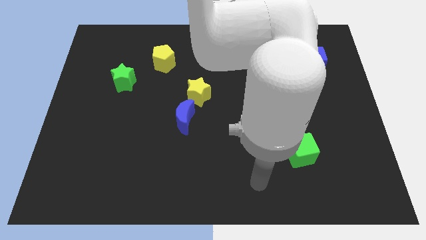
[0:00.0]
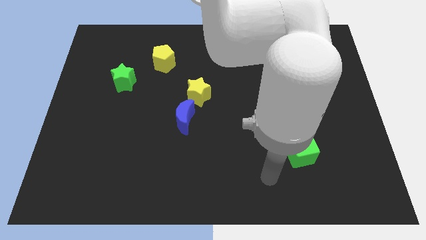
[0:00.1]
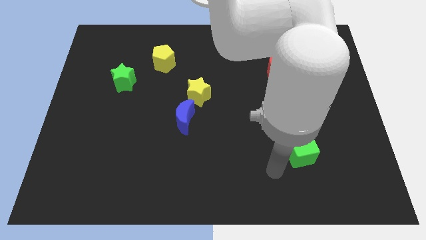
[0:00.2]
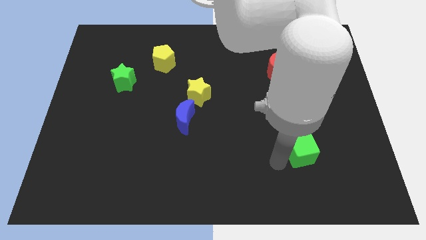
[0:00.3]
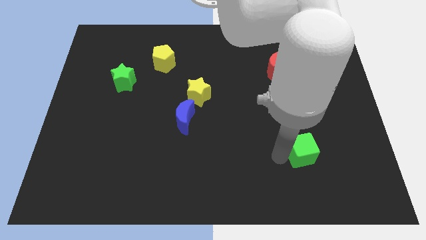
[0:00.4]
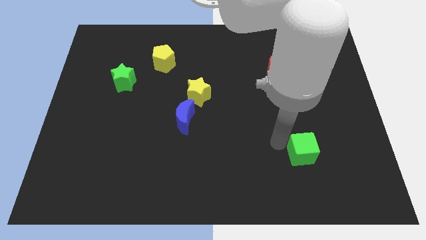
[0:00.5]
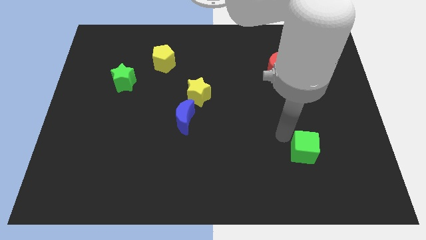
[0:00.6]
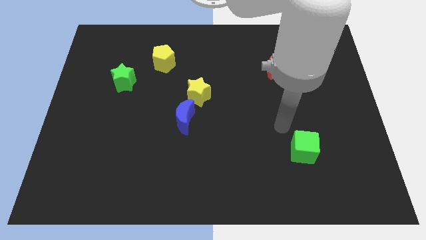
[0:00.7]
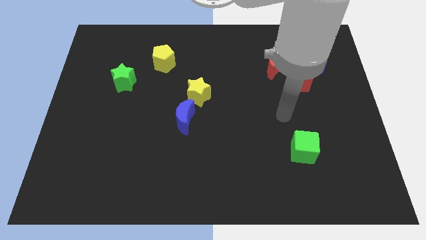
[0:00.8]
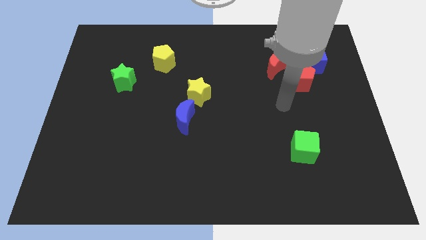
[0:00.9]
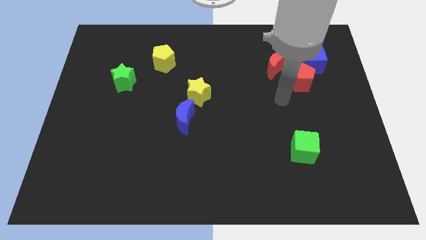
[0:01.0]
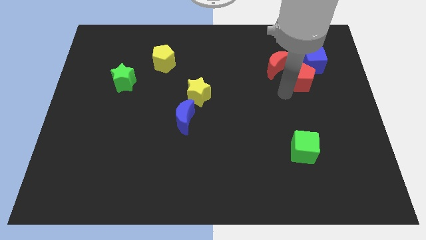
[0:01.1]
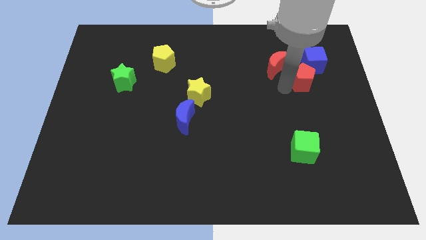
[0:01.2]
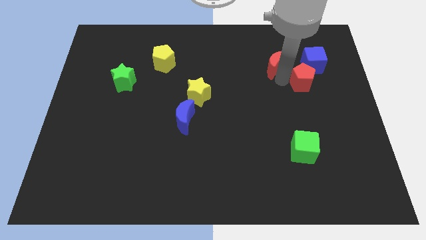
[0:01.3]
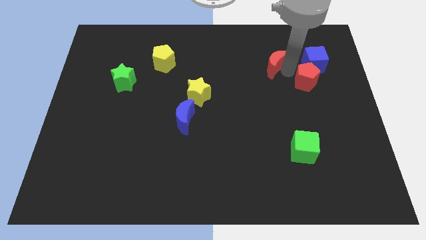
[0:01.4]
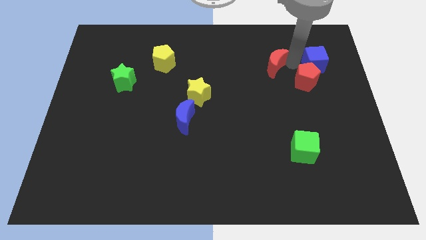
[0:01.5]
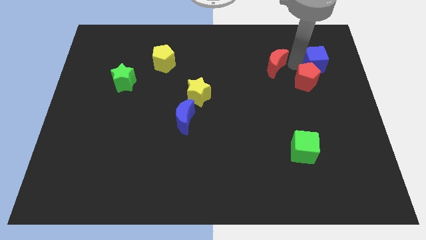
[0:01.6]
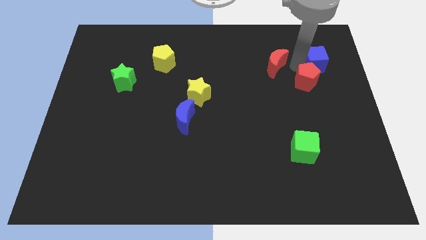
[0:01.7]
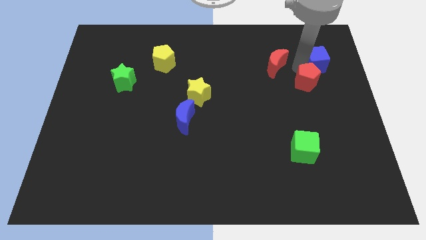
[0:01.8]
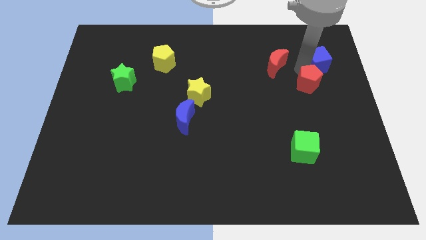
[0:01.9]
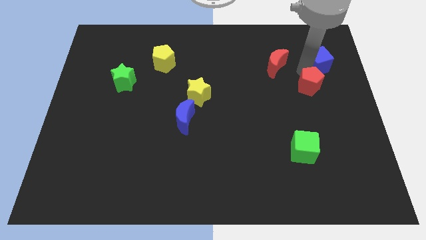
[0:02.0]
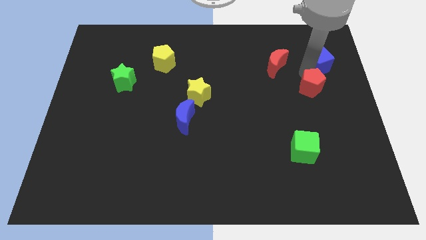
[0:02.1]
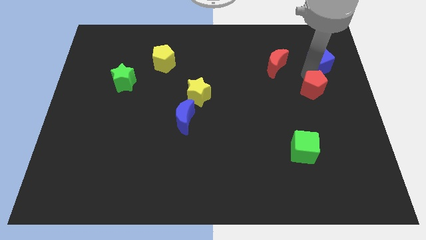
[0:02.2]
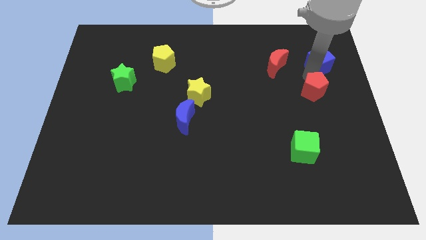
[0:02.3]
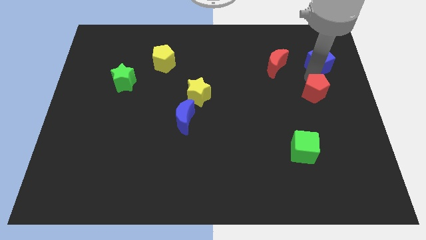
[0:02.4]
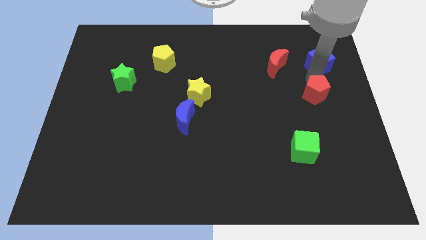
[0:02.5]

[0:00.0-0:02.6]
pull the red pentagon apart from the blue cube and red moon

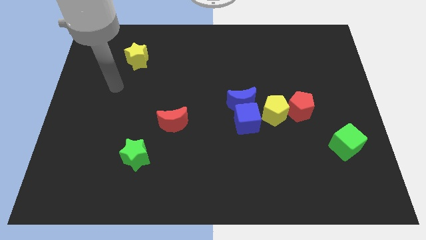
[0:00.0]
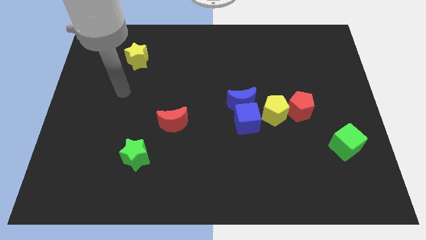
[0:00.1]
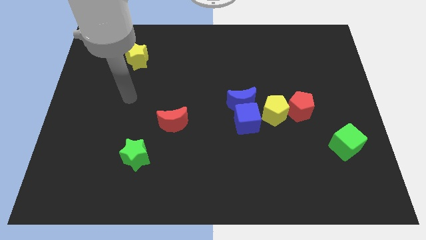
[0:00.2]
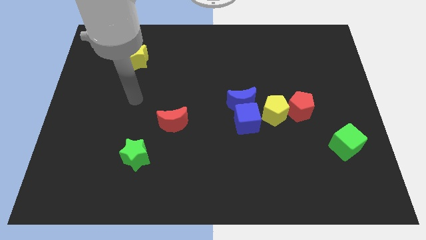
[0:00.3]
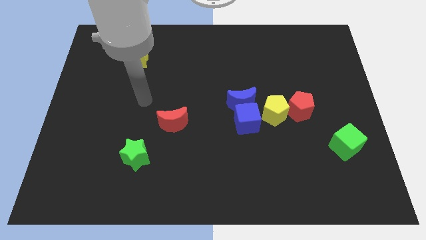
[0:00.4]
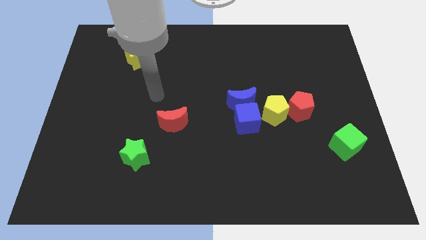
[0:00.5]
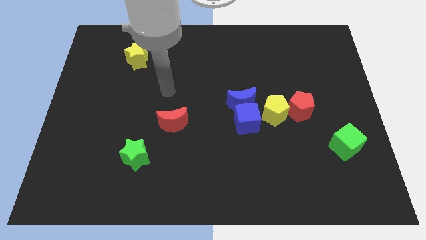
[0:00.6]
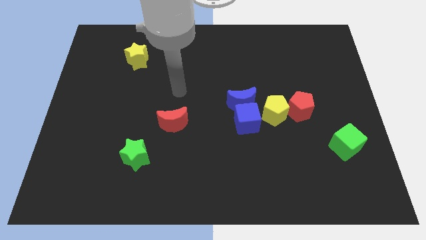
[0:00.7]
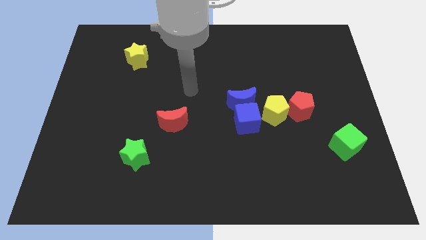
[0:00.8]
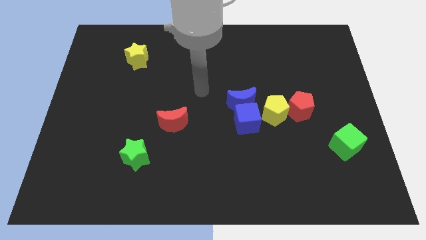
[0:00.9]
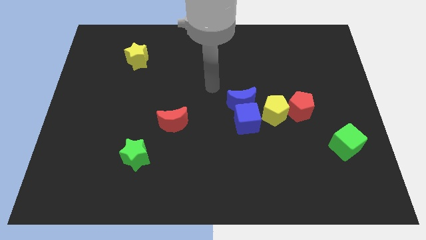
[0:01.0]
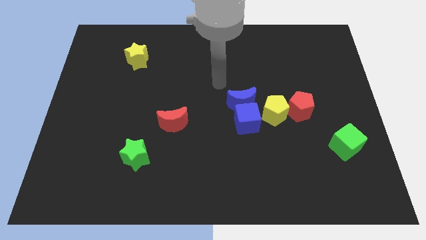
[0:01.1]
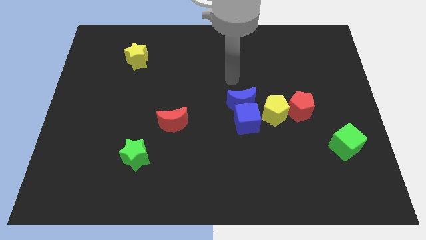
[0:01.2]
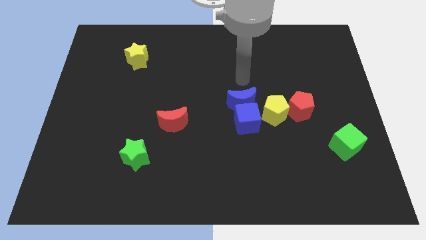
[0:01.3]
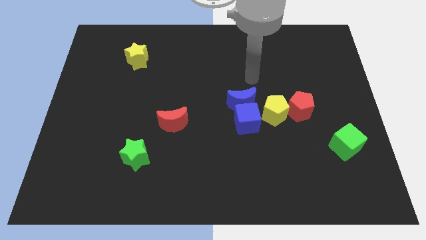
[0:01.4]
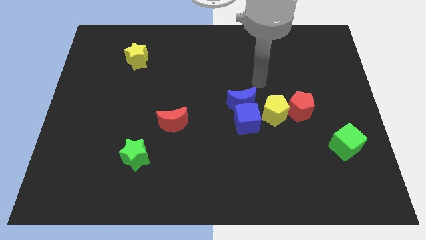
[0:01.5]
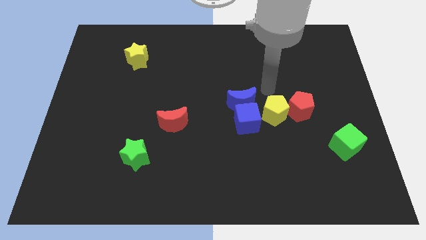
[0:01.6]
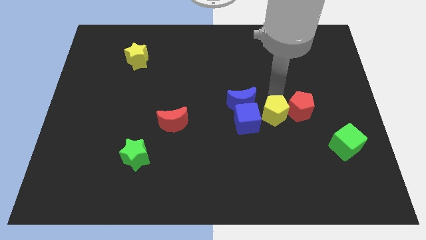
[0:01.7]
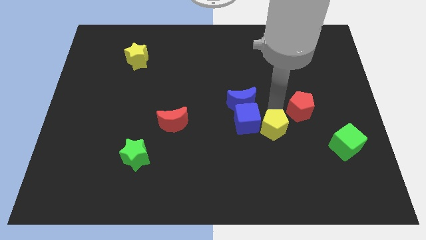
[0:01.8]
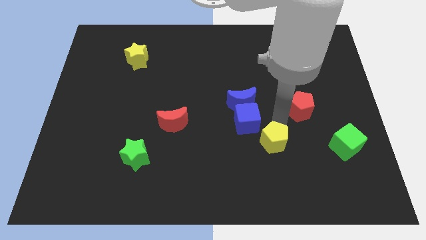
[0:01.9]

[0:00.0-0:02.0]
move the red pentagon away from the yellow pentagon

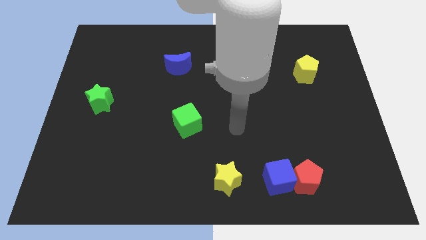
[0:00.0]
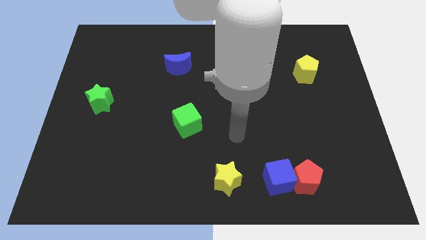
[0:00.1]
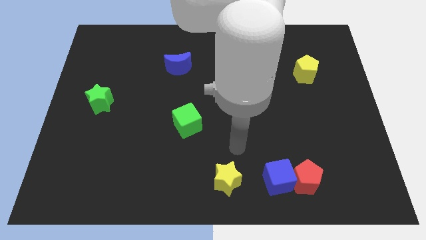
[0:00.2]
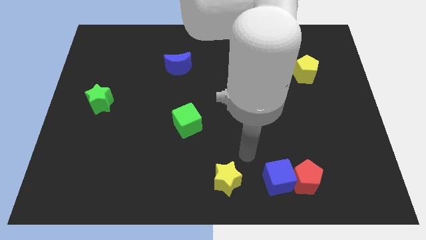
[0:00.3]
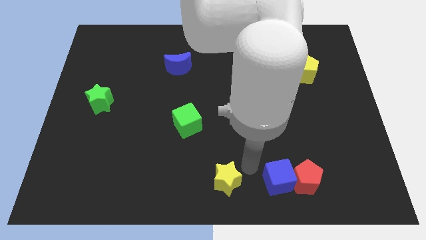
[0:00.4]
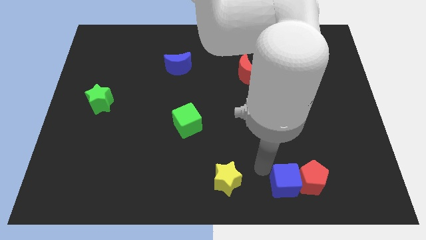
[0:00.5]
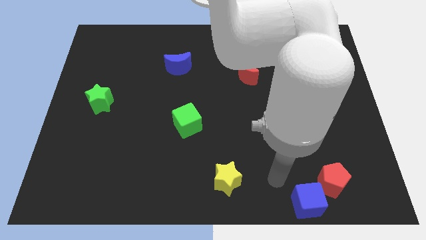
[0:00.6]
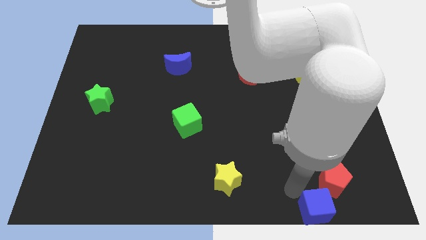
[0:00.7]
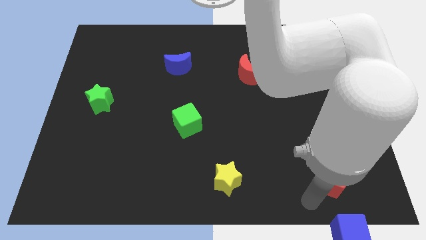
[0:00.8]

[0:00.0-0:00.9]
move the red pentagon away from the blue cube

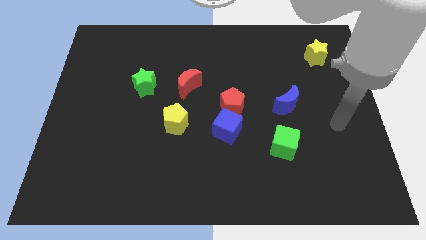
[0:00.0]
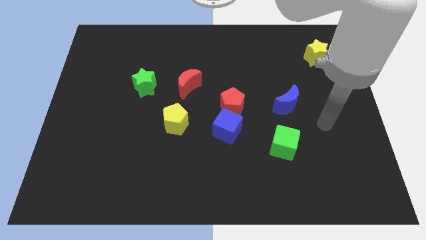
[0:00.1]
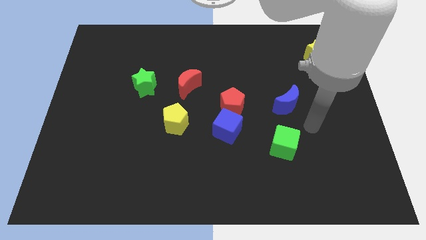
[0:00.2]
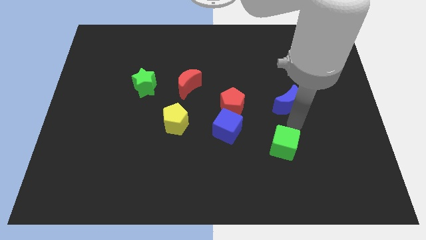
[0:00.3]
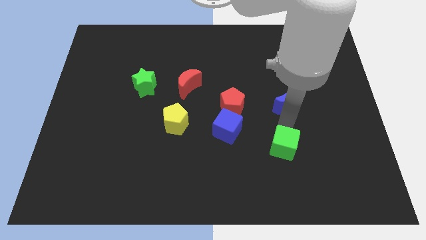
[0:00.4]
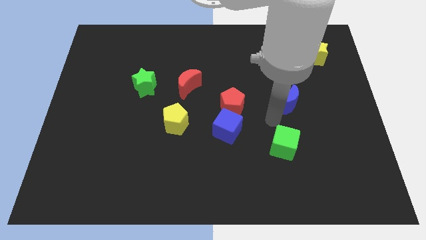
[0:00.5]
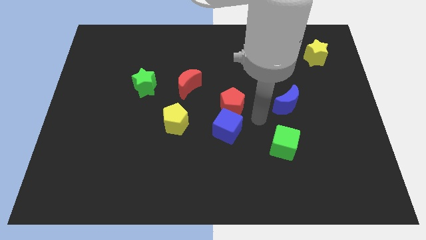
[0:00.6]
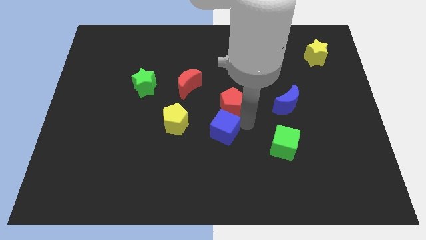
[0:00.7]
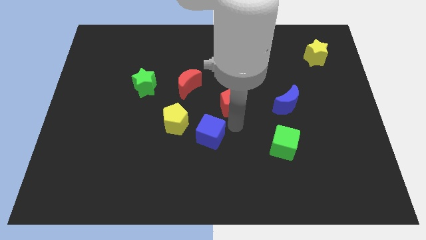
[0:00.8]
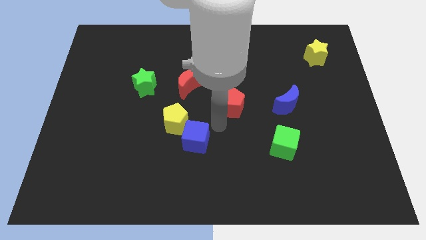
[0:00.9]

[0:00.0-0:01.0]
pull the red pentagon apart from the blue cube

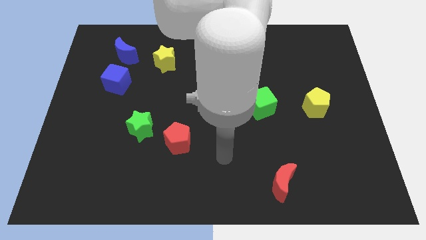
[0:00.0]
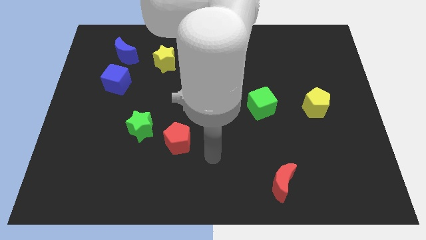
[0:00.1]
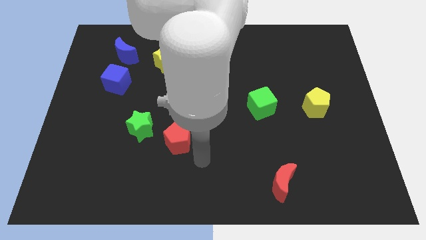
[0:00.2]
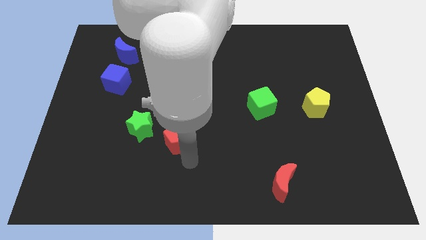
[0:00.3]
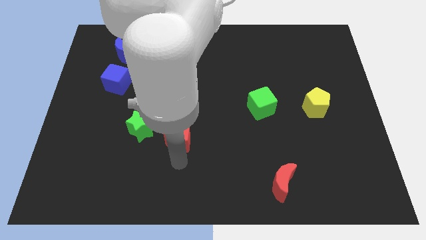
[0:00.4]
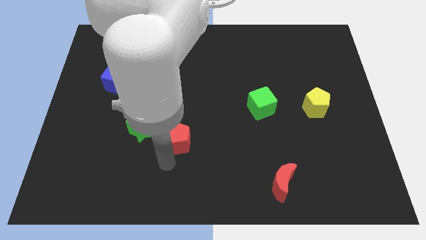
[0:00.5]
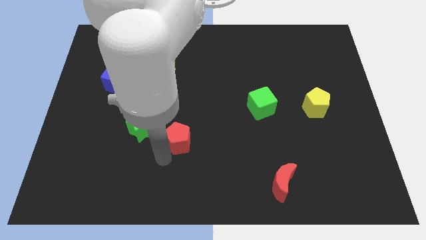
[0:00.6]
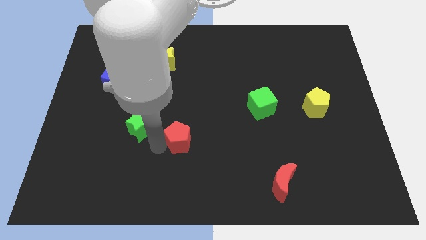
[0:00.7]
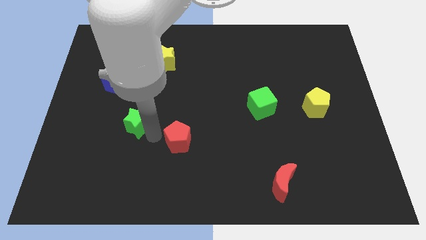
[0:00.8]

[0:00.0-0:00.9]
separate the red pentagon from the green star

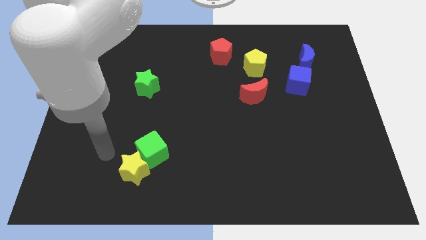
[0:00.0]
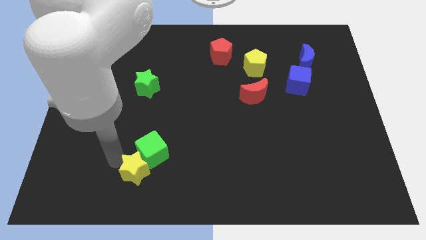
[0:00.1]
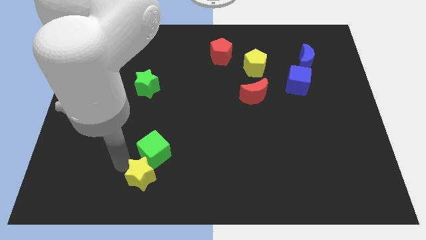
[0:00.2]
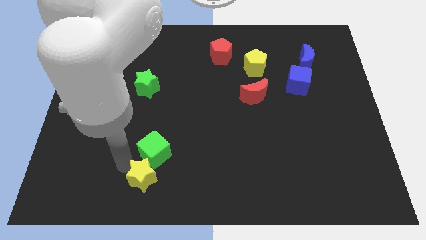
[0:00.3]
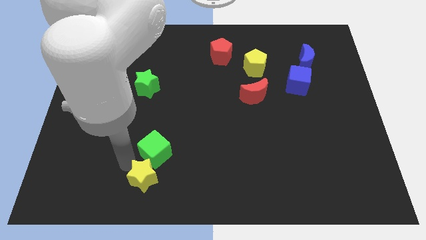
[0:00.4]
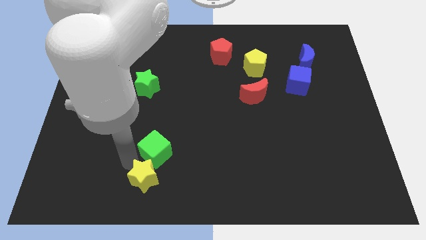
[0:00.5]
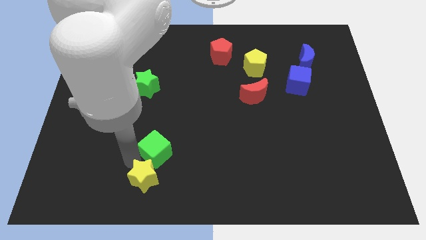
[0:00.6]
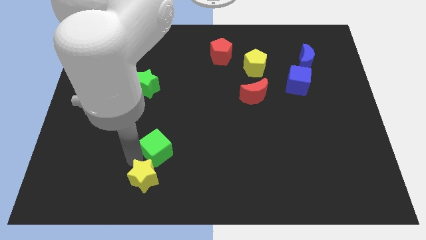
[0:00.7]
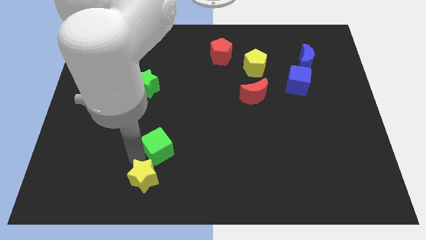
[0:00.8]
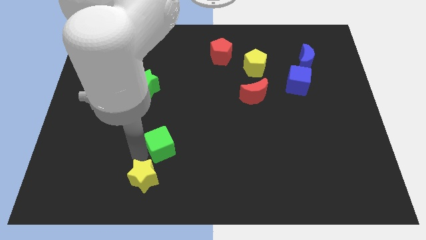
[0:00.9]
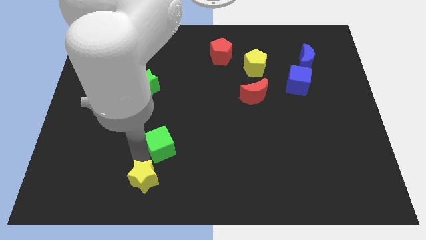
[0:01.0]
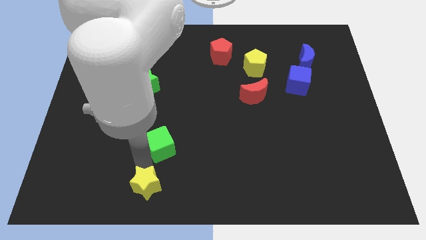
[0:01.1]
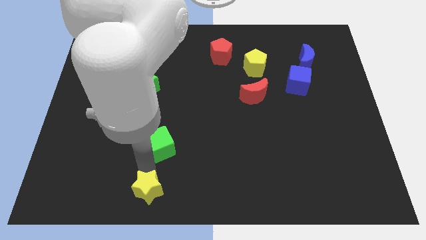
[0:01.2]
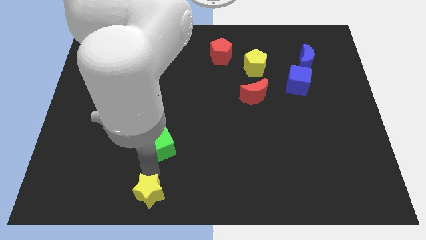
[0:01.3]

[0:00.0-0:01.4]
move the green cube away from the yellow star

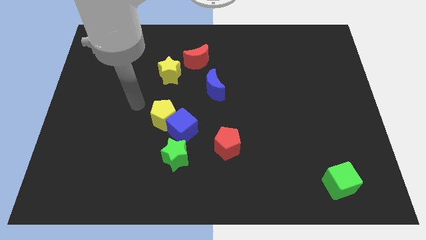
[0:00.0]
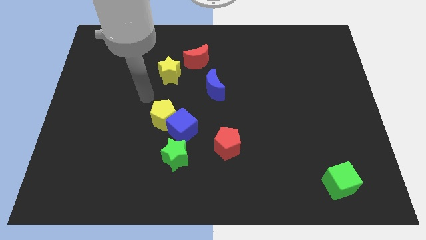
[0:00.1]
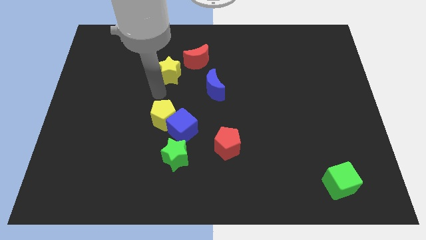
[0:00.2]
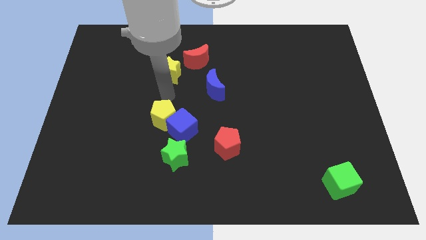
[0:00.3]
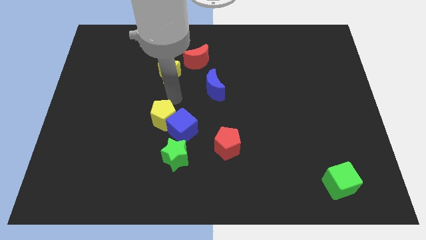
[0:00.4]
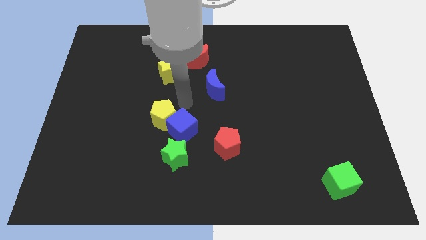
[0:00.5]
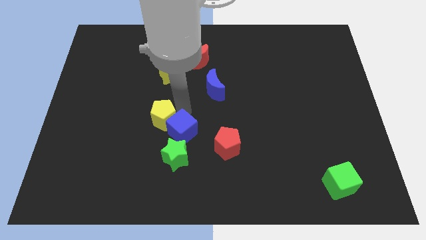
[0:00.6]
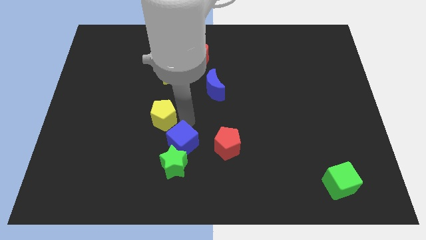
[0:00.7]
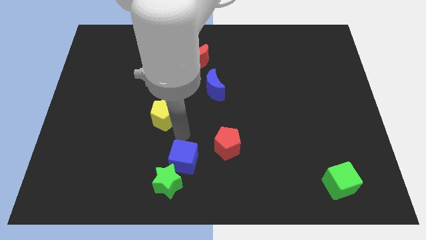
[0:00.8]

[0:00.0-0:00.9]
move the yellow pentagon away from the blue cube
